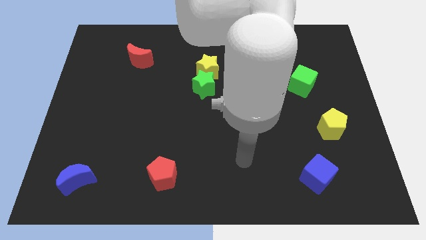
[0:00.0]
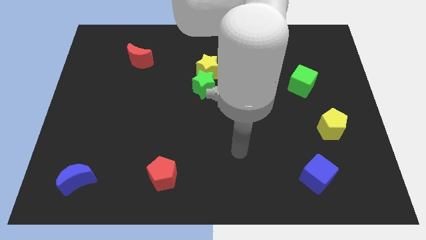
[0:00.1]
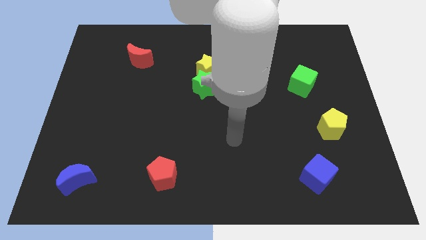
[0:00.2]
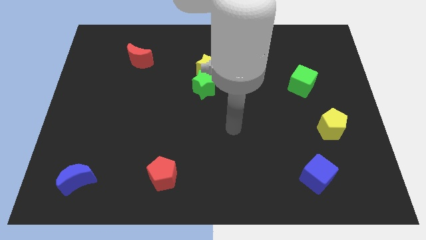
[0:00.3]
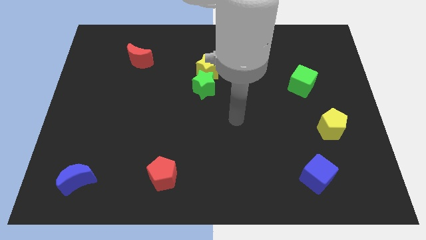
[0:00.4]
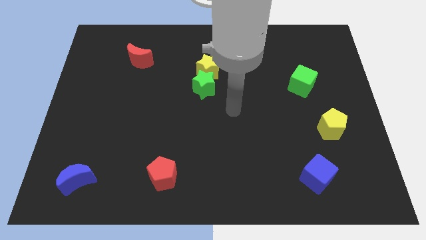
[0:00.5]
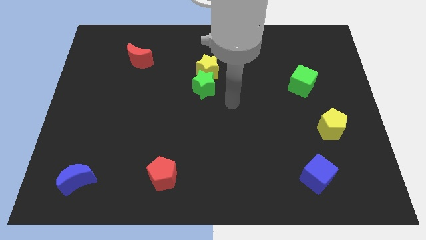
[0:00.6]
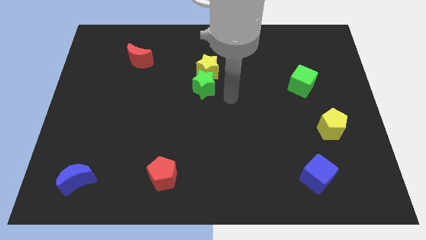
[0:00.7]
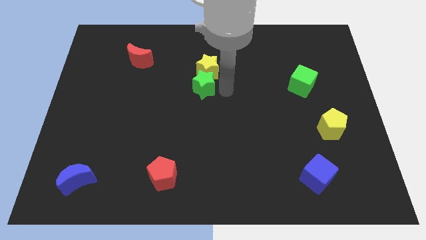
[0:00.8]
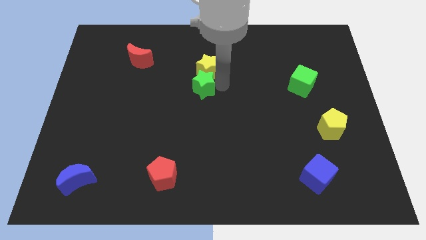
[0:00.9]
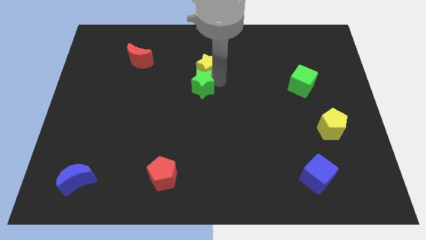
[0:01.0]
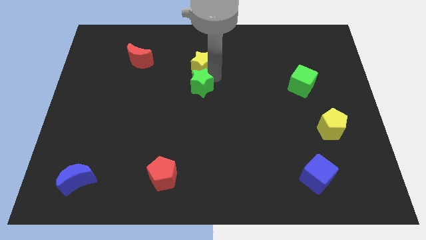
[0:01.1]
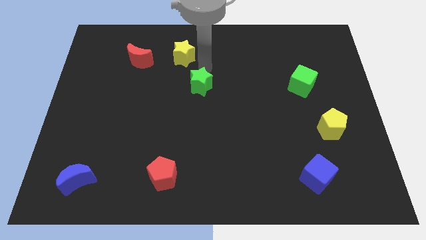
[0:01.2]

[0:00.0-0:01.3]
move the green star away from the yellow star

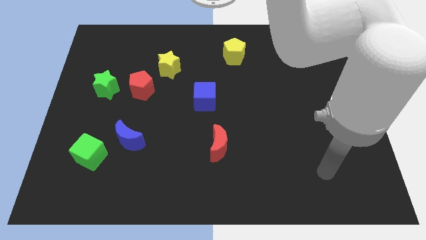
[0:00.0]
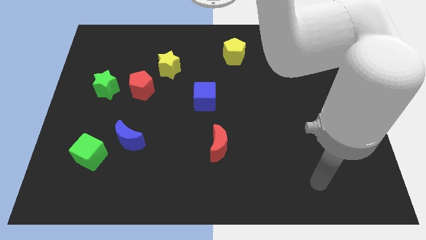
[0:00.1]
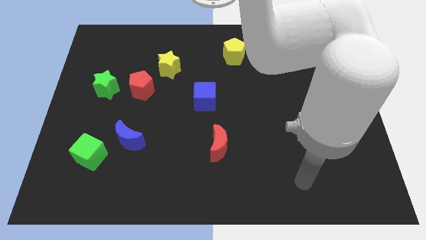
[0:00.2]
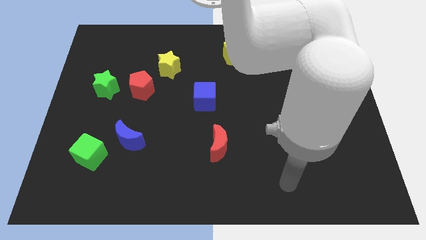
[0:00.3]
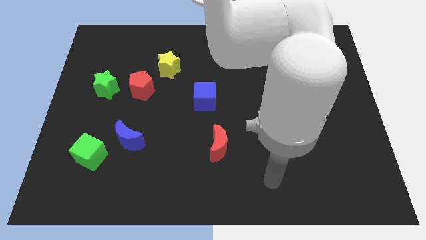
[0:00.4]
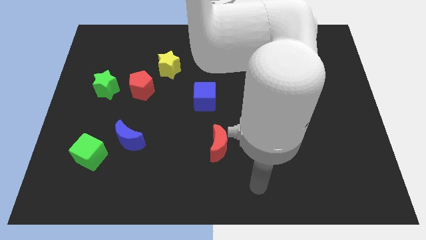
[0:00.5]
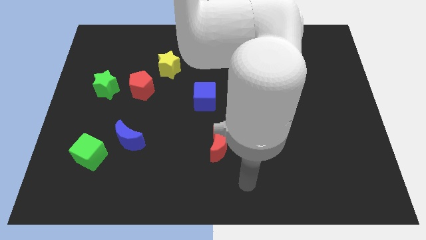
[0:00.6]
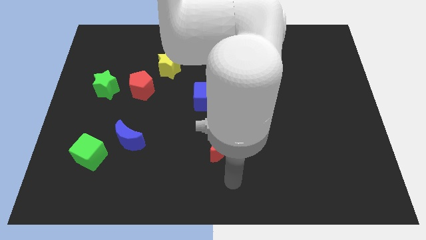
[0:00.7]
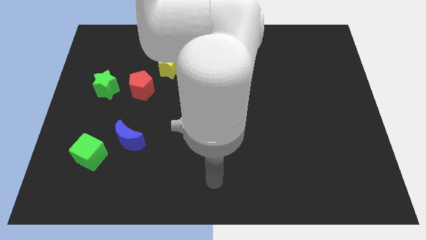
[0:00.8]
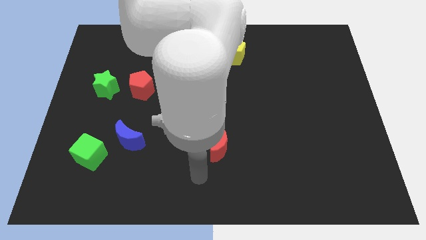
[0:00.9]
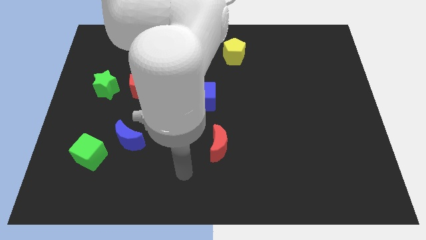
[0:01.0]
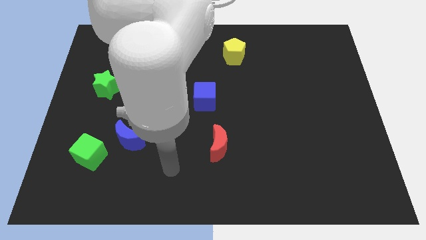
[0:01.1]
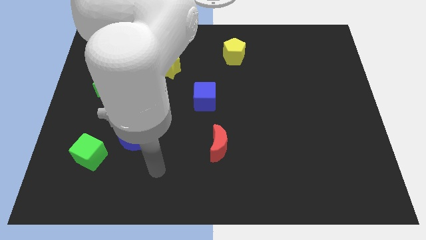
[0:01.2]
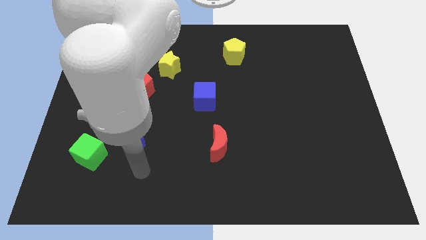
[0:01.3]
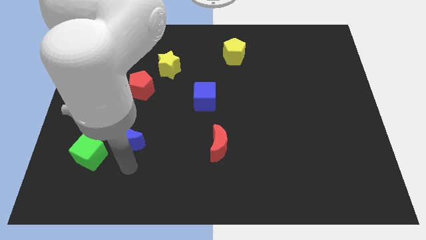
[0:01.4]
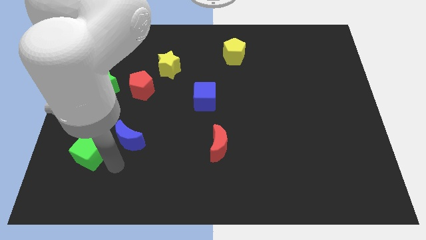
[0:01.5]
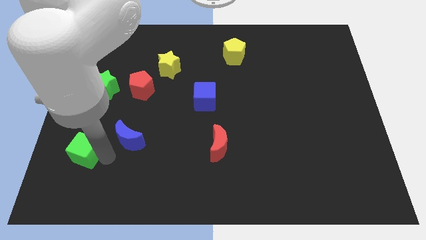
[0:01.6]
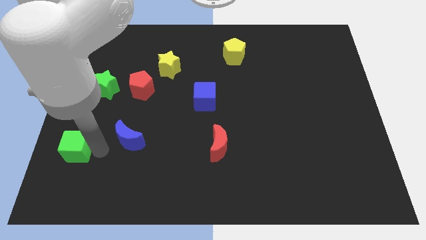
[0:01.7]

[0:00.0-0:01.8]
move the blue moon away from the green cube

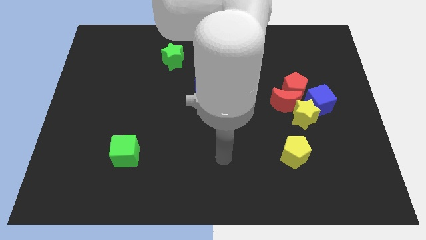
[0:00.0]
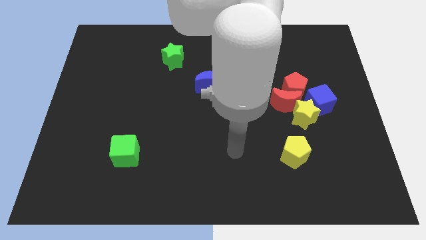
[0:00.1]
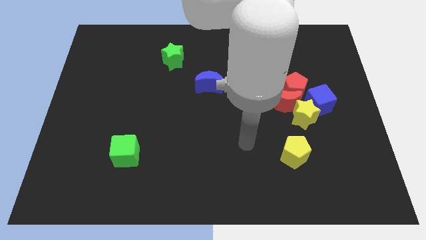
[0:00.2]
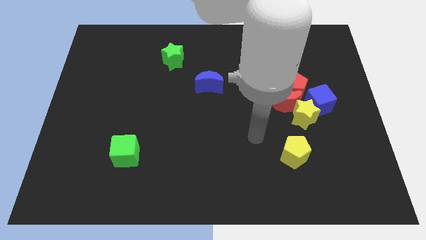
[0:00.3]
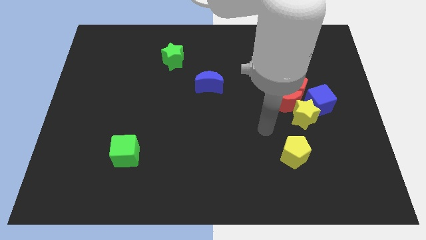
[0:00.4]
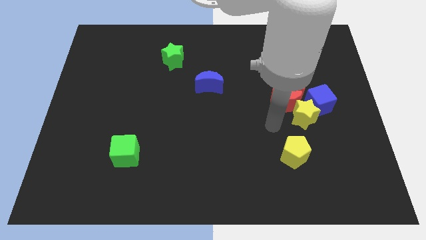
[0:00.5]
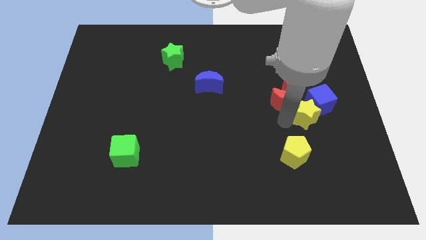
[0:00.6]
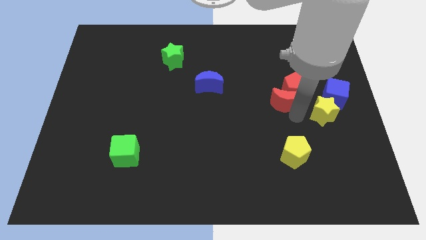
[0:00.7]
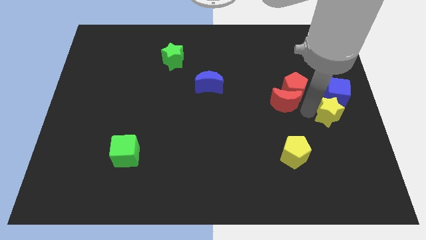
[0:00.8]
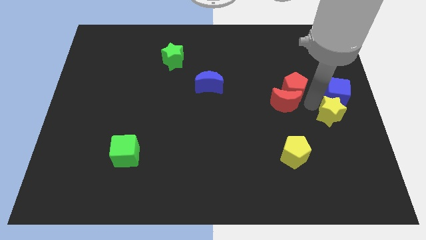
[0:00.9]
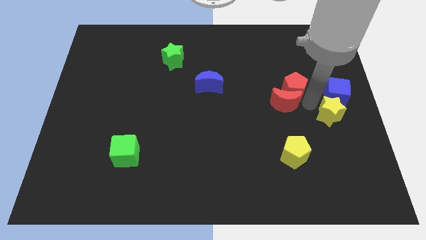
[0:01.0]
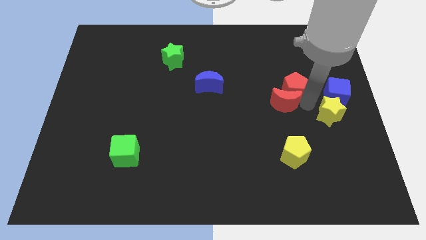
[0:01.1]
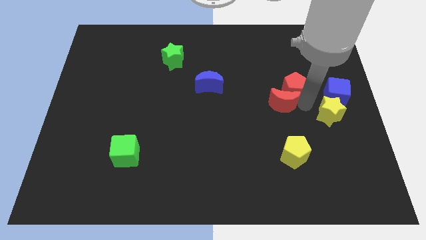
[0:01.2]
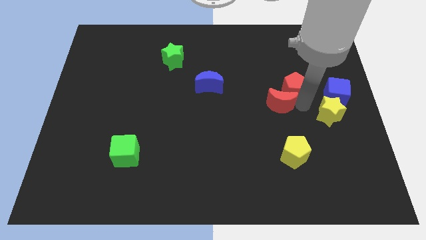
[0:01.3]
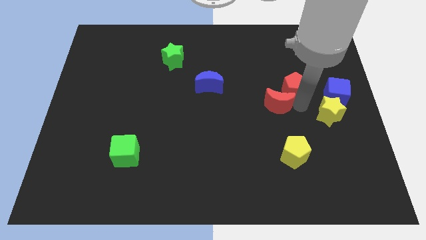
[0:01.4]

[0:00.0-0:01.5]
separate the red moon from the group of blocks

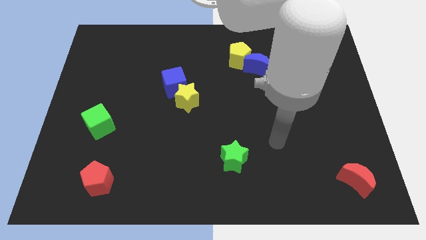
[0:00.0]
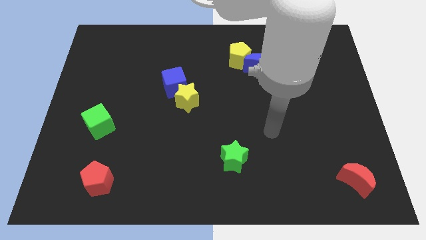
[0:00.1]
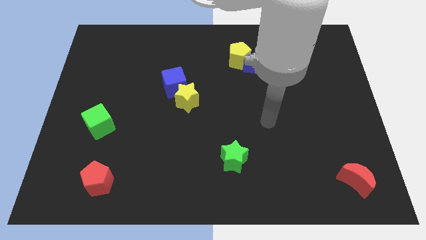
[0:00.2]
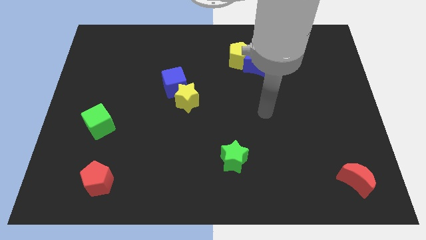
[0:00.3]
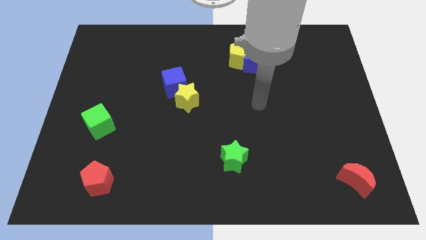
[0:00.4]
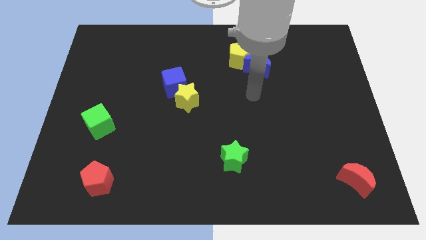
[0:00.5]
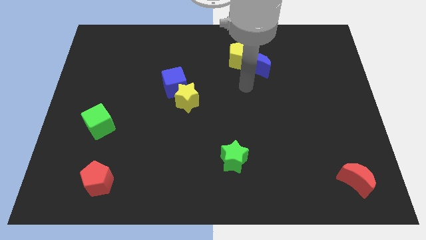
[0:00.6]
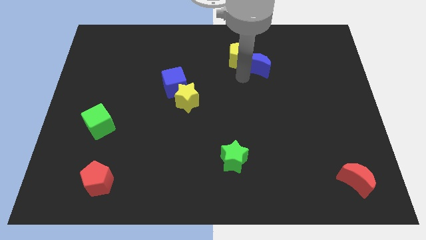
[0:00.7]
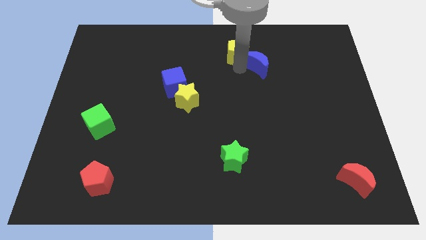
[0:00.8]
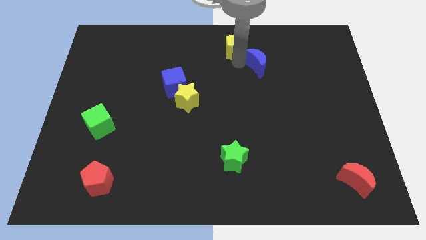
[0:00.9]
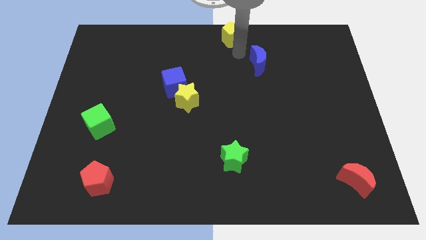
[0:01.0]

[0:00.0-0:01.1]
move the blue moon away from the yellow pentagon

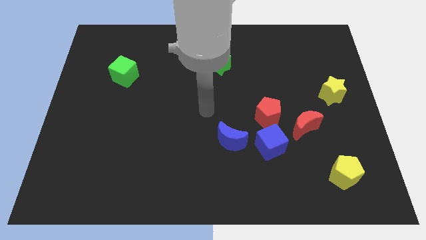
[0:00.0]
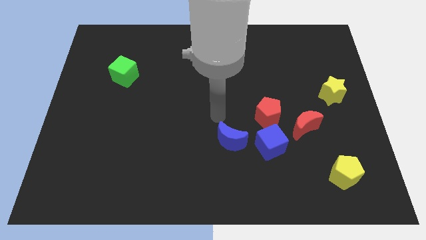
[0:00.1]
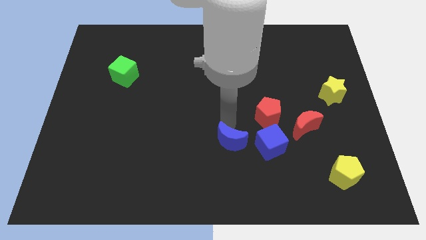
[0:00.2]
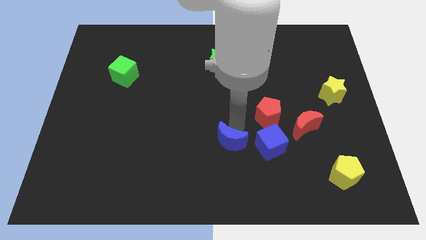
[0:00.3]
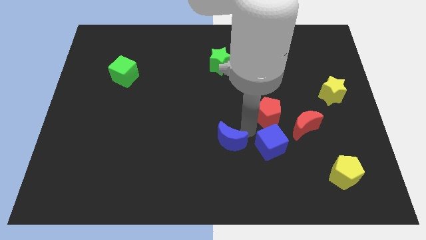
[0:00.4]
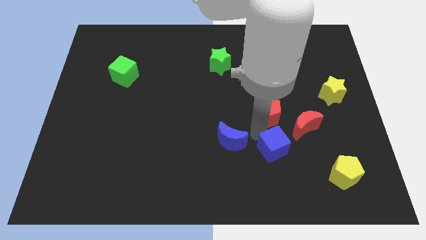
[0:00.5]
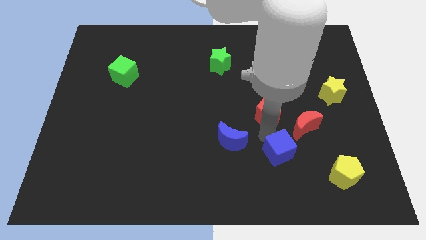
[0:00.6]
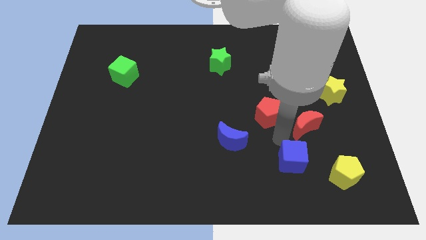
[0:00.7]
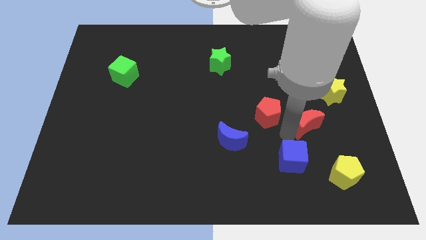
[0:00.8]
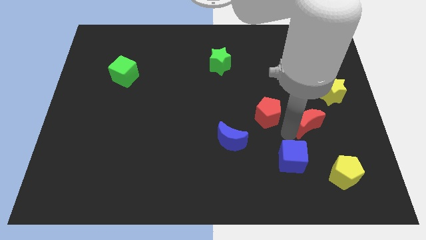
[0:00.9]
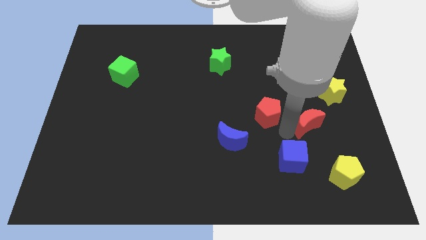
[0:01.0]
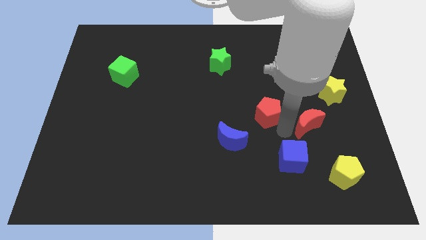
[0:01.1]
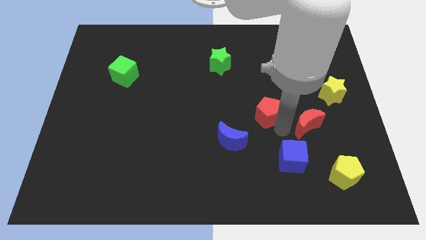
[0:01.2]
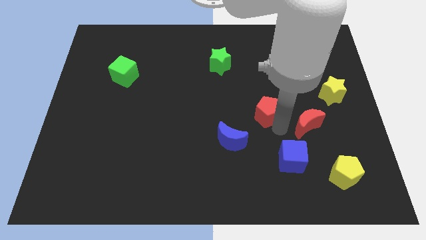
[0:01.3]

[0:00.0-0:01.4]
separate the red pentagon from the blue cube and red moon

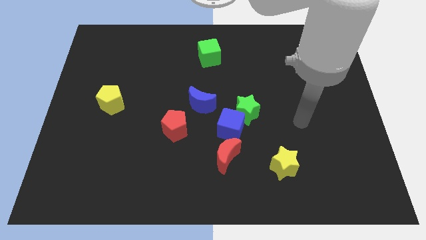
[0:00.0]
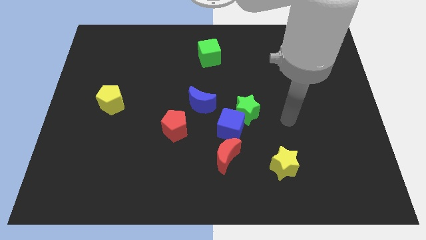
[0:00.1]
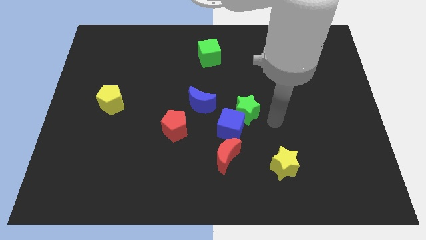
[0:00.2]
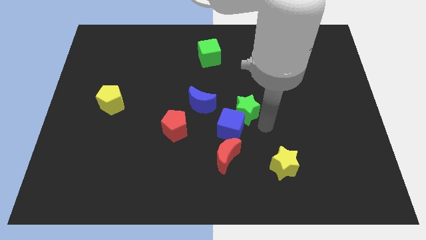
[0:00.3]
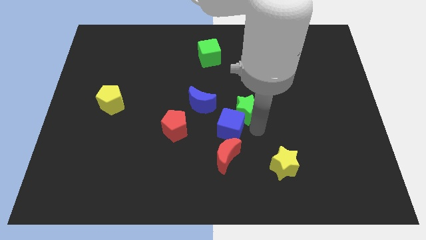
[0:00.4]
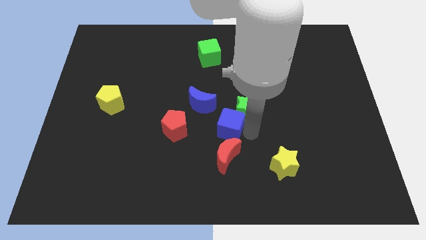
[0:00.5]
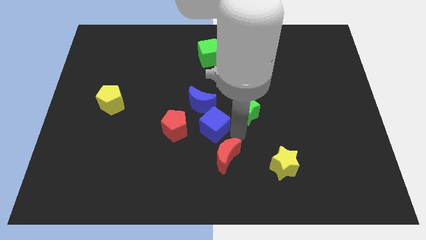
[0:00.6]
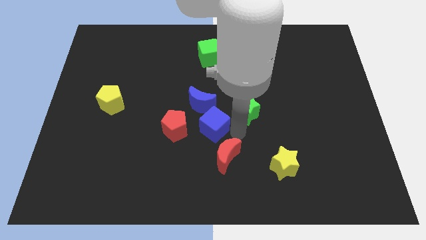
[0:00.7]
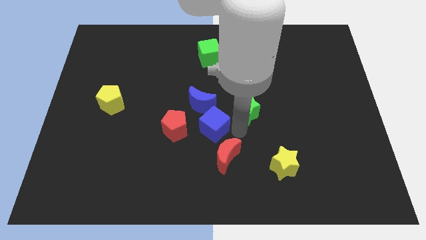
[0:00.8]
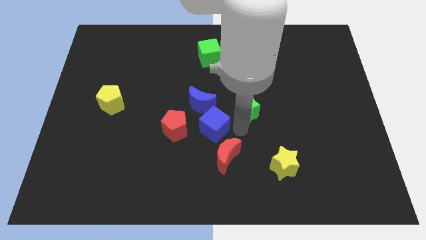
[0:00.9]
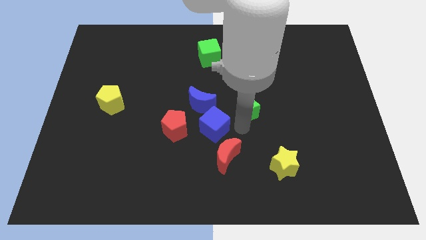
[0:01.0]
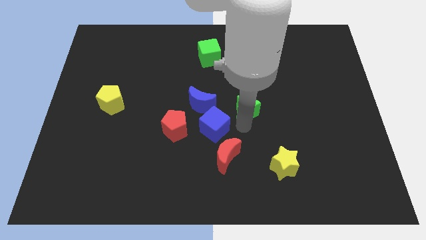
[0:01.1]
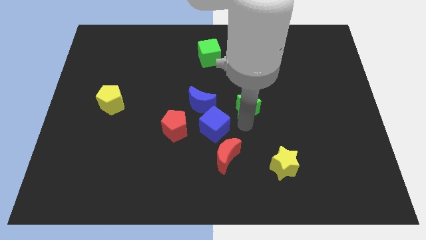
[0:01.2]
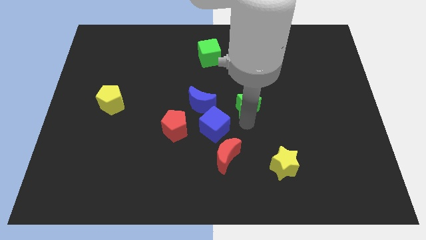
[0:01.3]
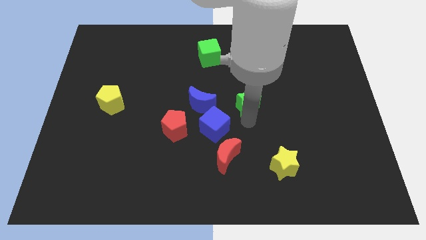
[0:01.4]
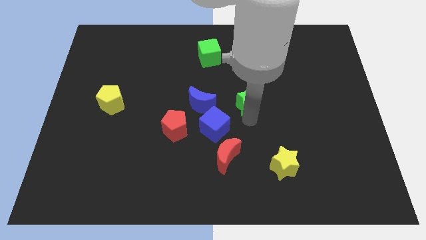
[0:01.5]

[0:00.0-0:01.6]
separate the green star from the blue cube

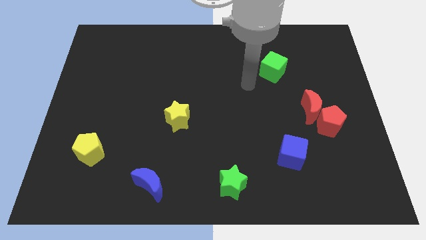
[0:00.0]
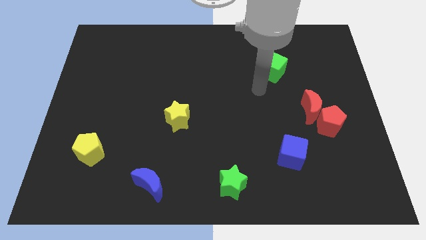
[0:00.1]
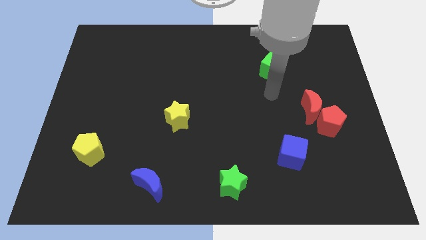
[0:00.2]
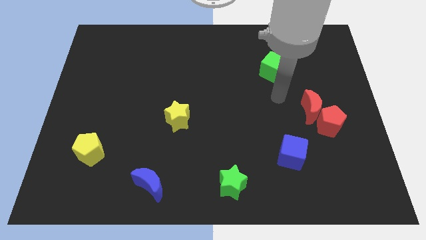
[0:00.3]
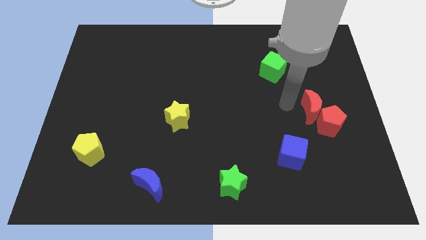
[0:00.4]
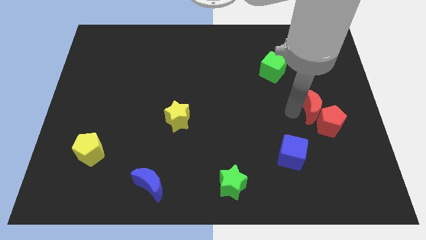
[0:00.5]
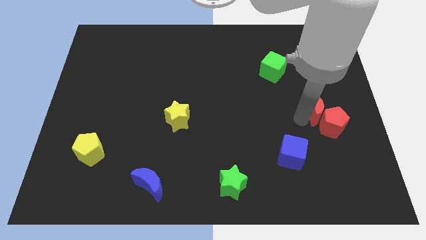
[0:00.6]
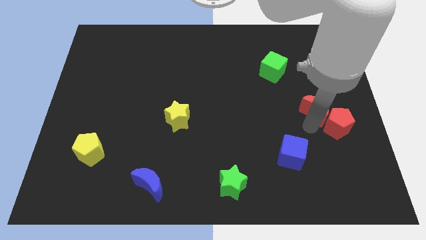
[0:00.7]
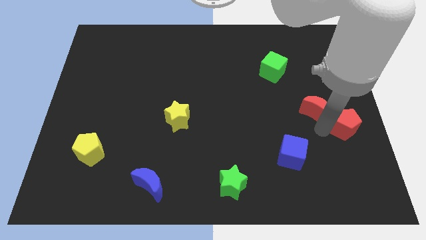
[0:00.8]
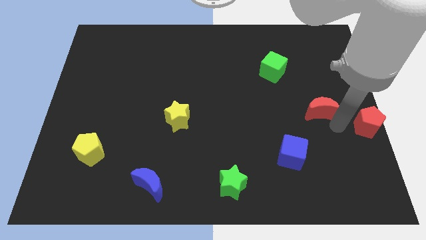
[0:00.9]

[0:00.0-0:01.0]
separate the red moon from the red pentagon
